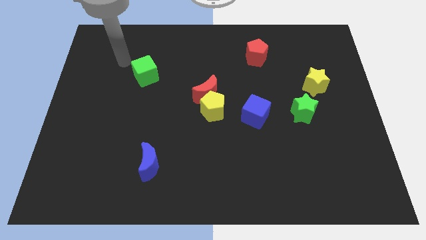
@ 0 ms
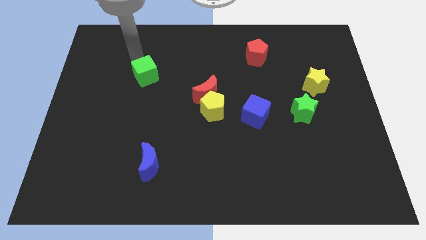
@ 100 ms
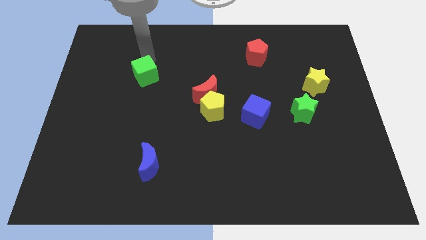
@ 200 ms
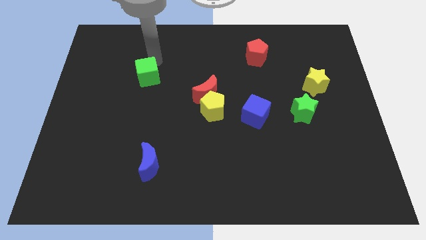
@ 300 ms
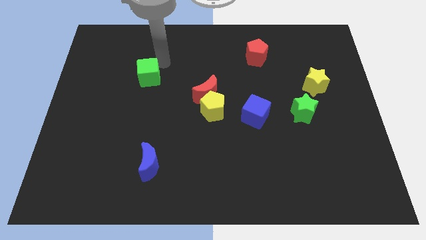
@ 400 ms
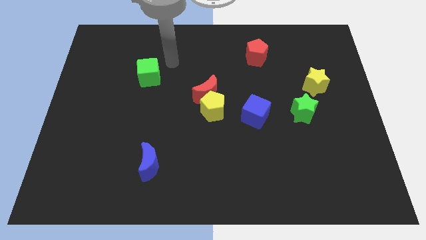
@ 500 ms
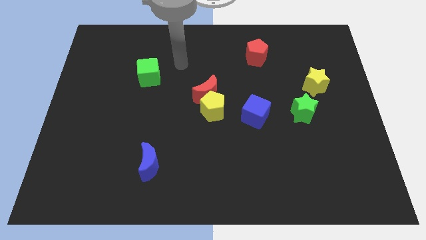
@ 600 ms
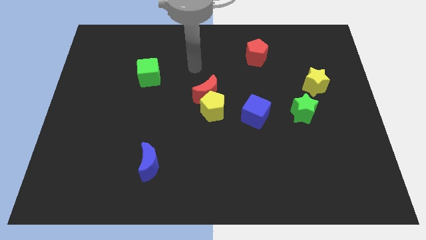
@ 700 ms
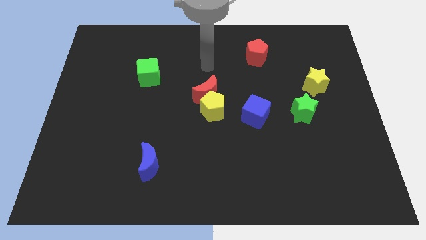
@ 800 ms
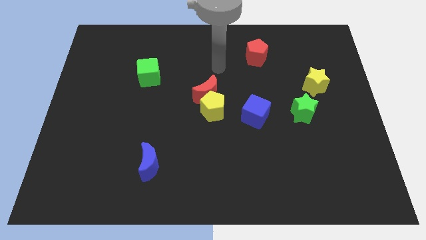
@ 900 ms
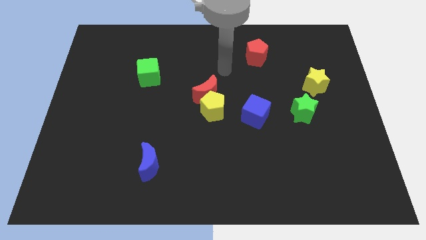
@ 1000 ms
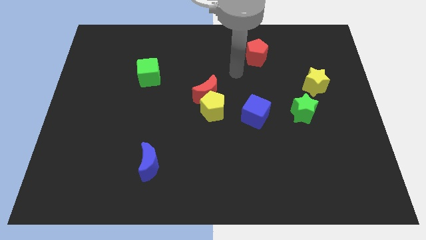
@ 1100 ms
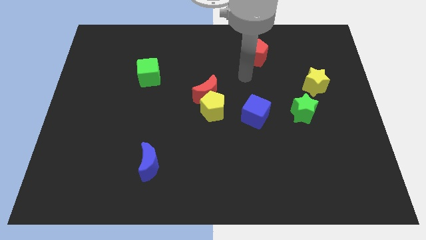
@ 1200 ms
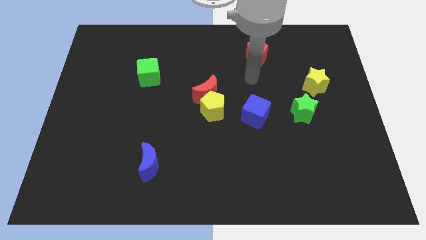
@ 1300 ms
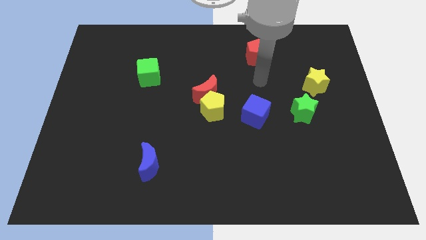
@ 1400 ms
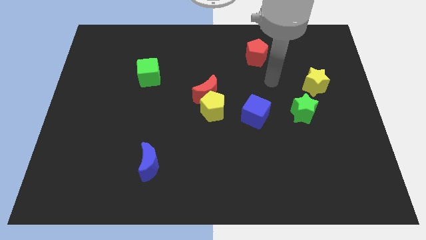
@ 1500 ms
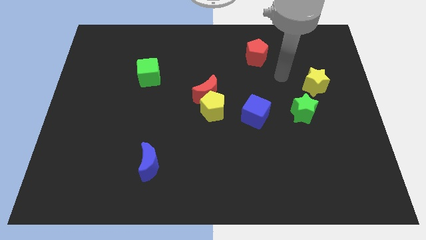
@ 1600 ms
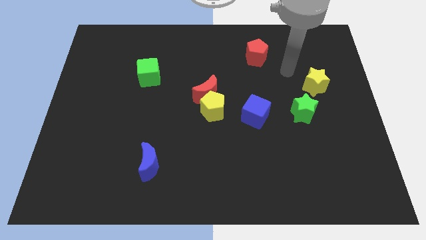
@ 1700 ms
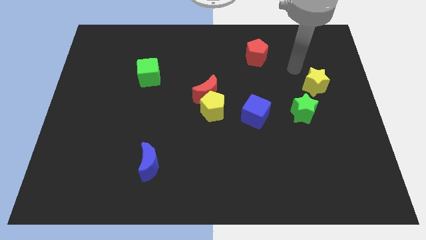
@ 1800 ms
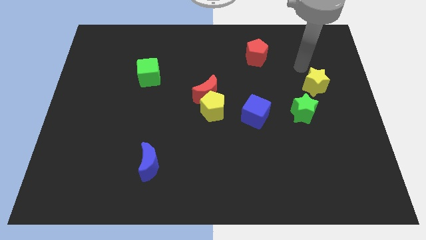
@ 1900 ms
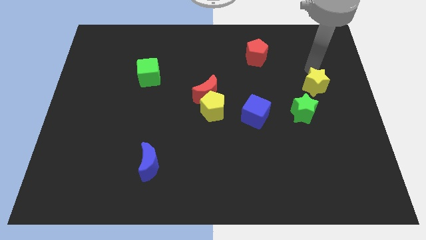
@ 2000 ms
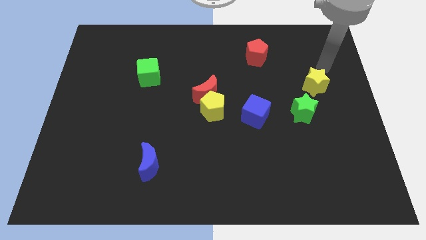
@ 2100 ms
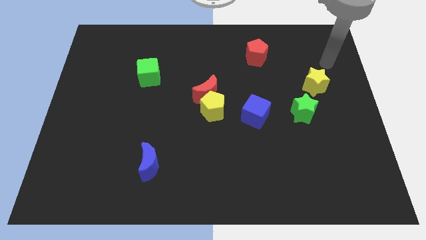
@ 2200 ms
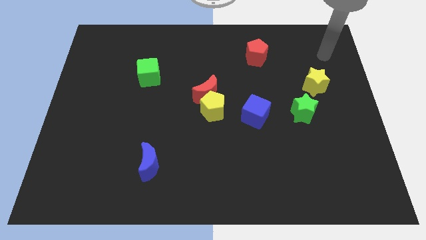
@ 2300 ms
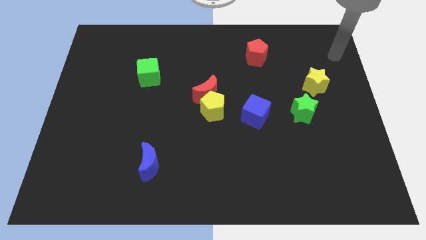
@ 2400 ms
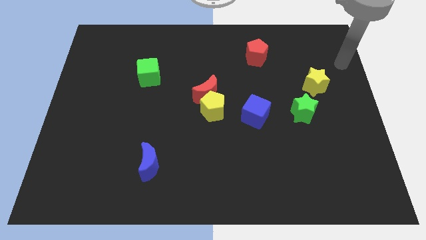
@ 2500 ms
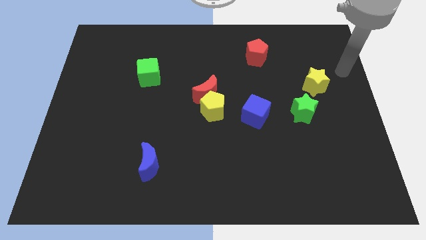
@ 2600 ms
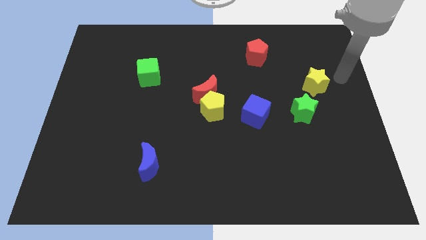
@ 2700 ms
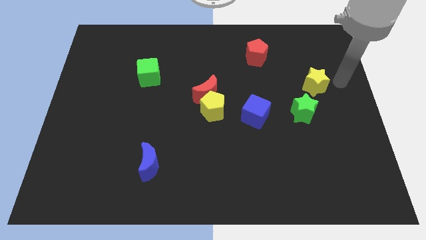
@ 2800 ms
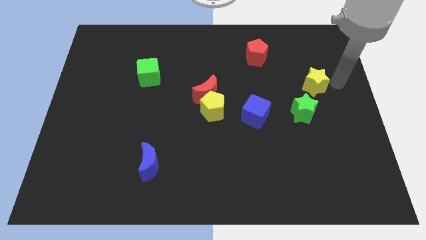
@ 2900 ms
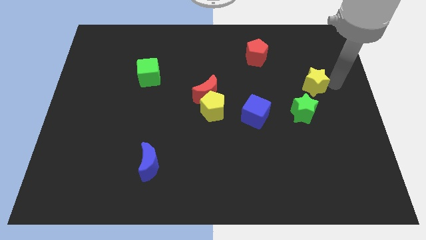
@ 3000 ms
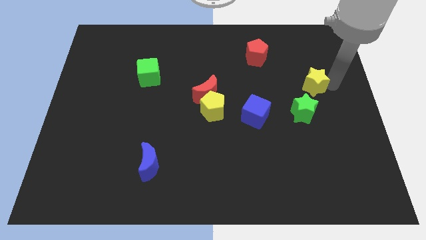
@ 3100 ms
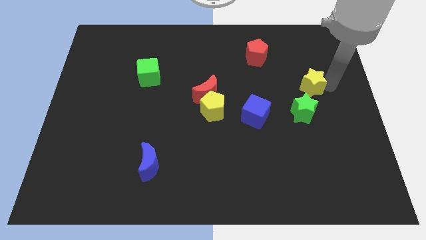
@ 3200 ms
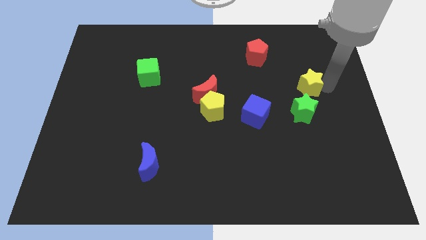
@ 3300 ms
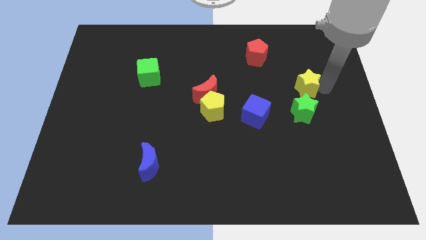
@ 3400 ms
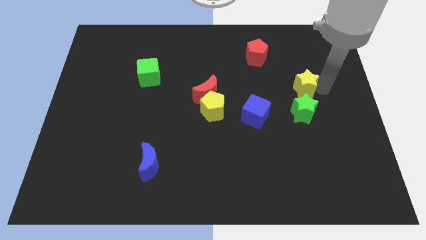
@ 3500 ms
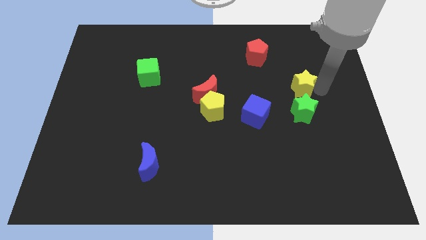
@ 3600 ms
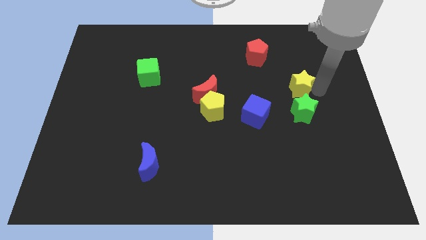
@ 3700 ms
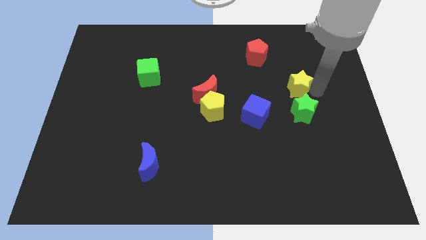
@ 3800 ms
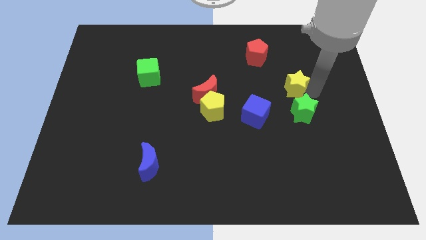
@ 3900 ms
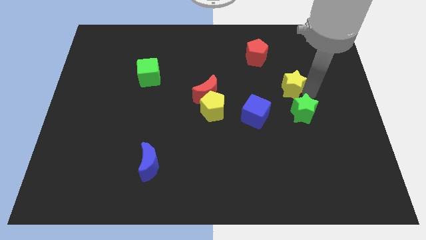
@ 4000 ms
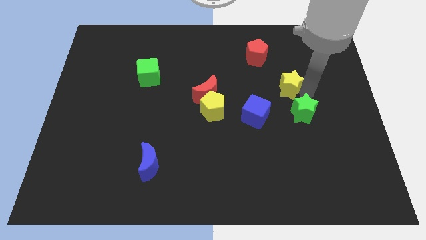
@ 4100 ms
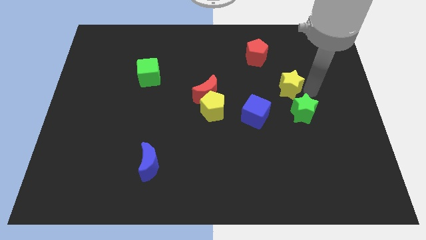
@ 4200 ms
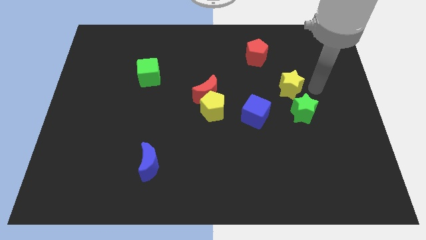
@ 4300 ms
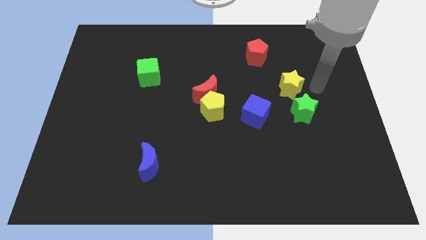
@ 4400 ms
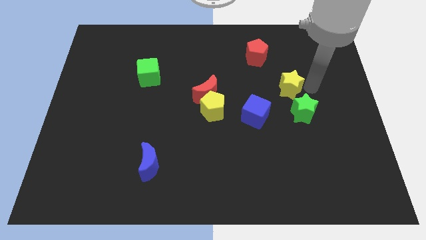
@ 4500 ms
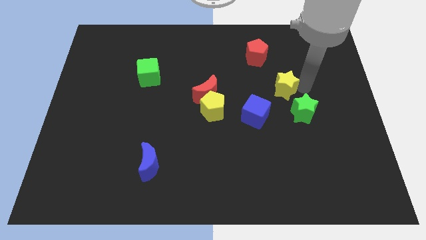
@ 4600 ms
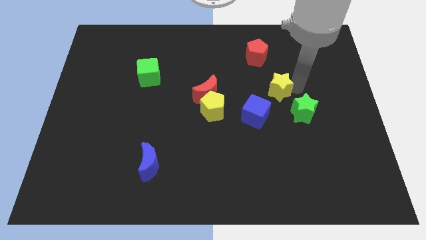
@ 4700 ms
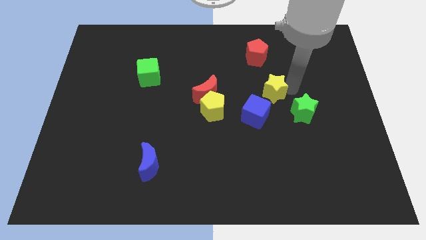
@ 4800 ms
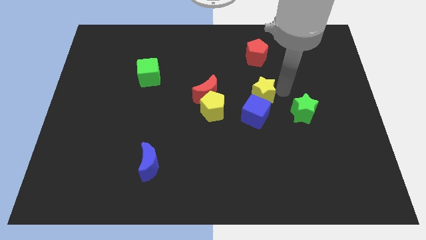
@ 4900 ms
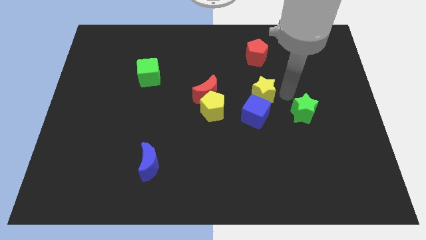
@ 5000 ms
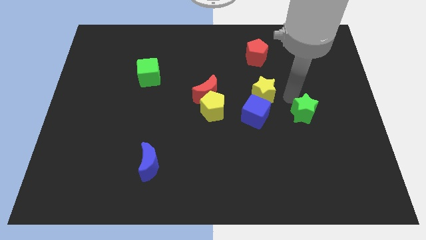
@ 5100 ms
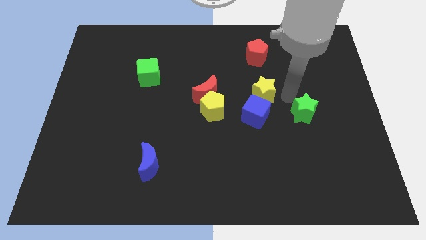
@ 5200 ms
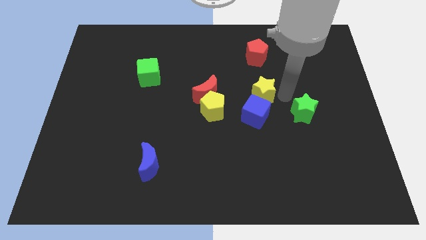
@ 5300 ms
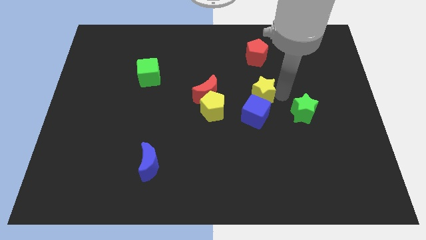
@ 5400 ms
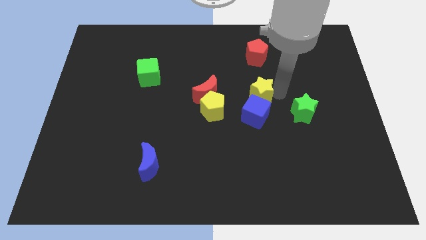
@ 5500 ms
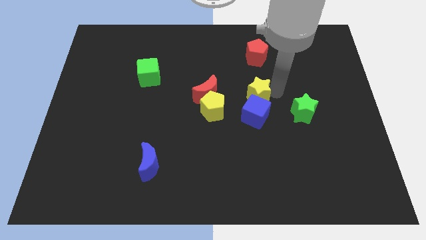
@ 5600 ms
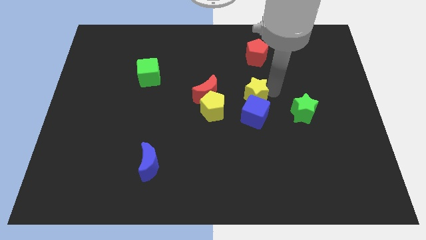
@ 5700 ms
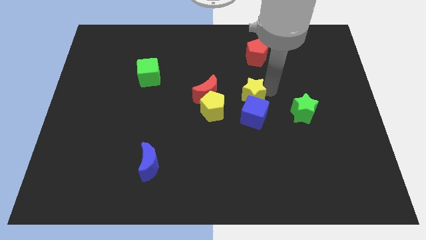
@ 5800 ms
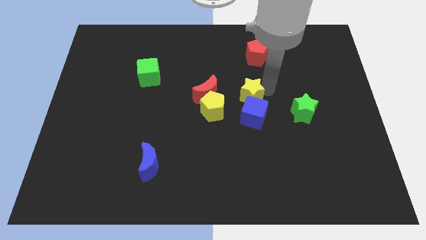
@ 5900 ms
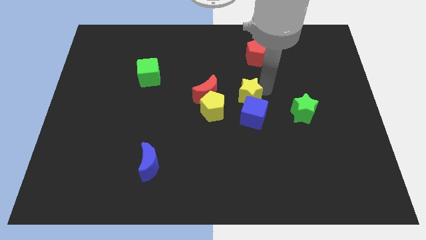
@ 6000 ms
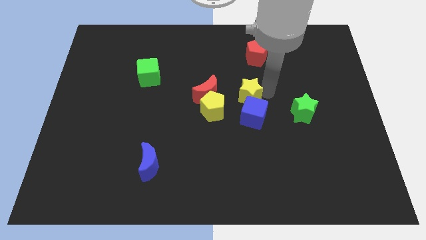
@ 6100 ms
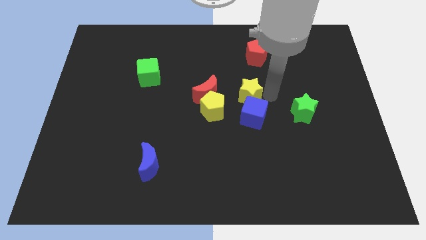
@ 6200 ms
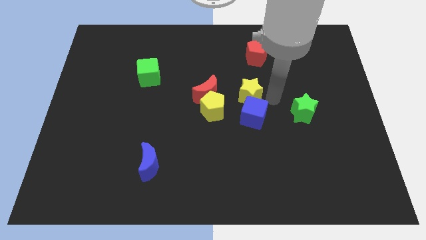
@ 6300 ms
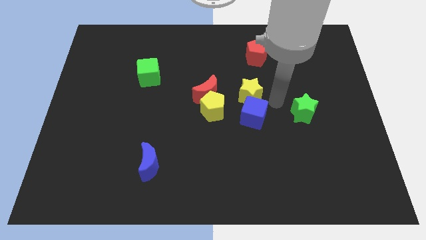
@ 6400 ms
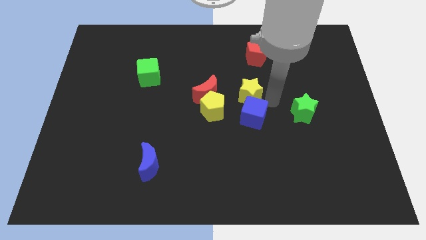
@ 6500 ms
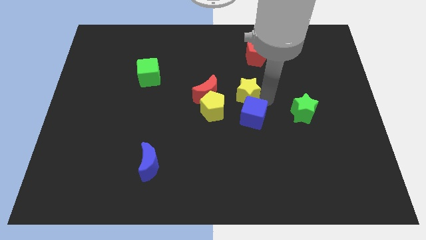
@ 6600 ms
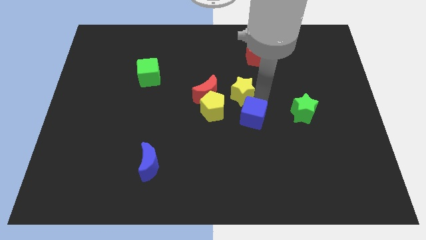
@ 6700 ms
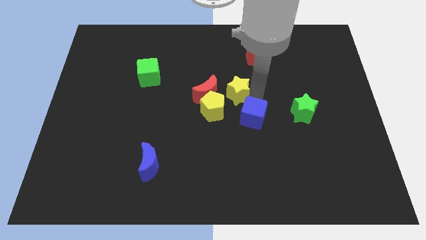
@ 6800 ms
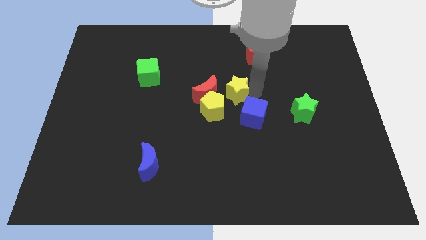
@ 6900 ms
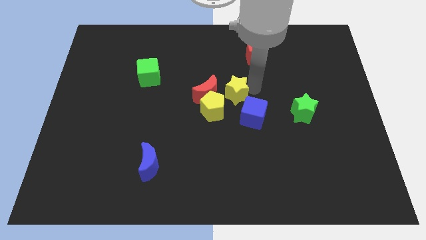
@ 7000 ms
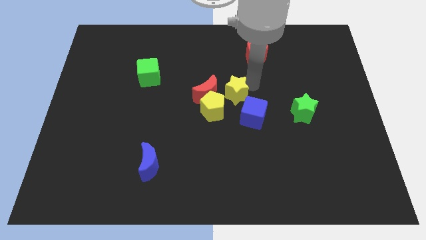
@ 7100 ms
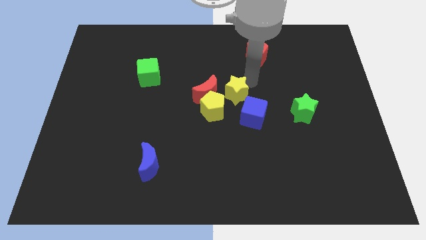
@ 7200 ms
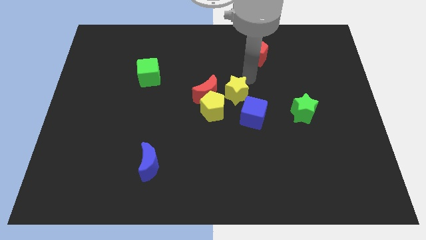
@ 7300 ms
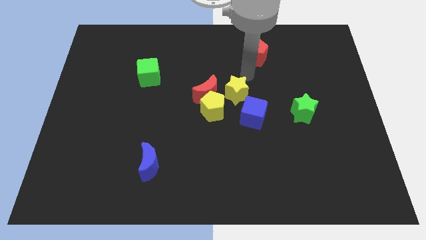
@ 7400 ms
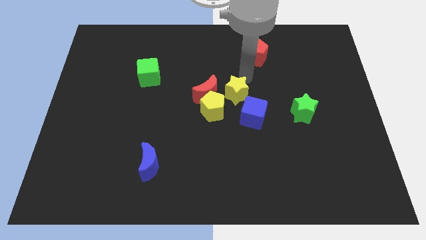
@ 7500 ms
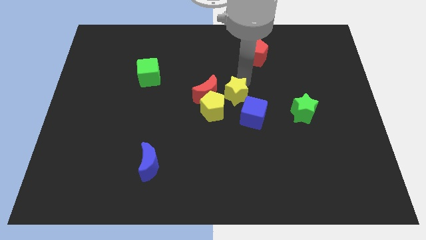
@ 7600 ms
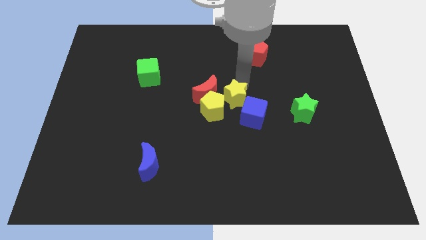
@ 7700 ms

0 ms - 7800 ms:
push the yellow star to the yellow pentagon
